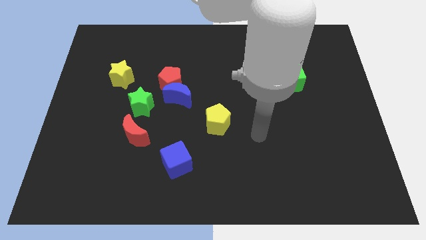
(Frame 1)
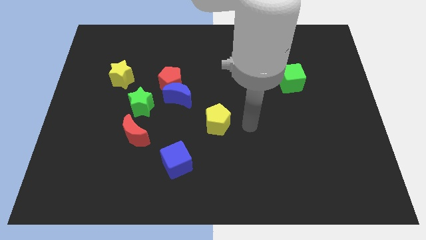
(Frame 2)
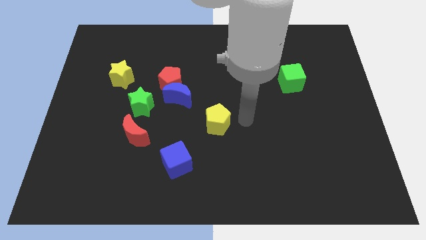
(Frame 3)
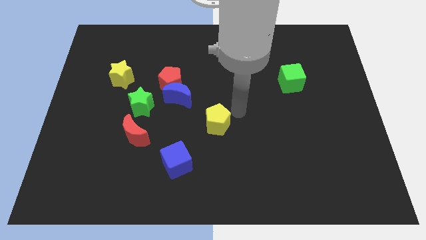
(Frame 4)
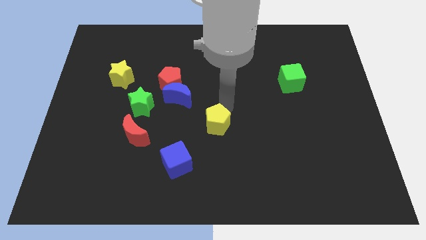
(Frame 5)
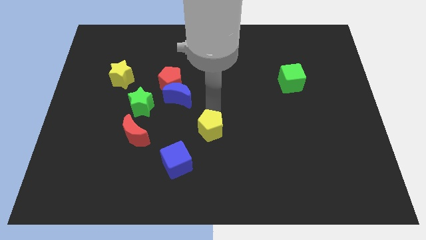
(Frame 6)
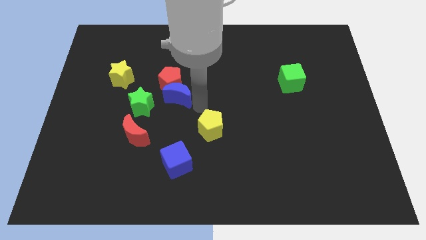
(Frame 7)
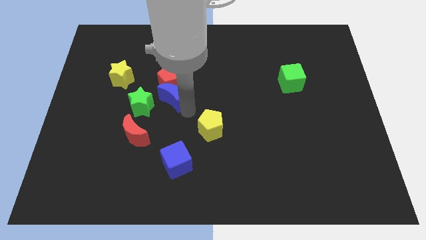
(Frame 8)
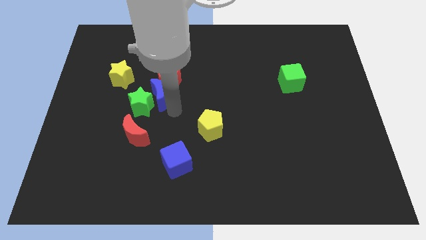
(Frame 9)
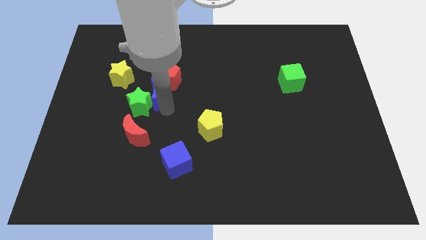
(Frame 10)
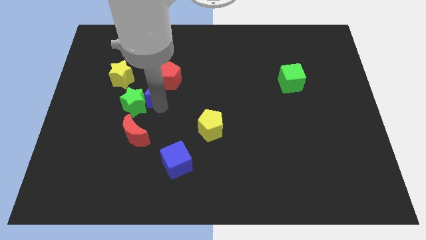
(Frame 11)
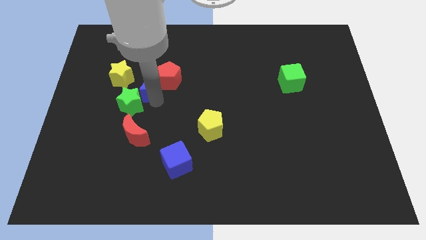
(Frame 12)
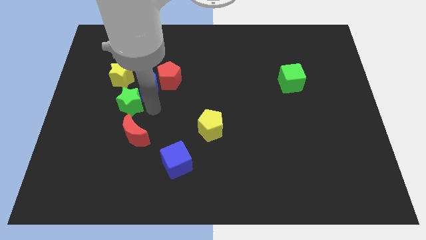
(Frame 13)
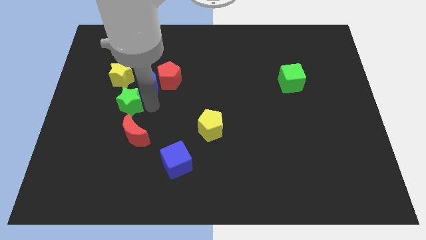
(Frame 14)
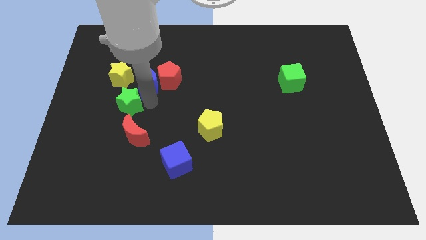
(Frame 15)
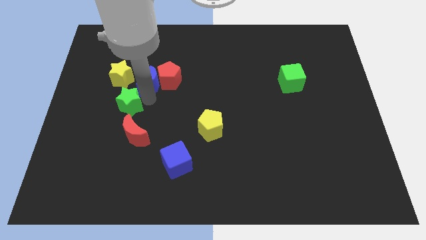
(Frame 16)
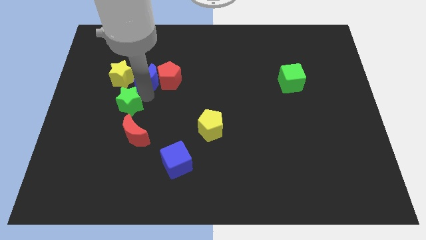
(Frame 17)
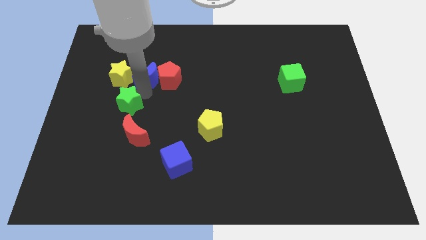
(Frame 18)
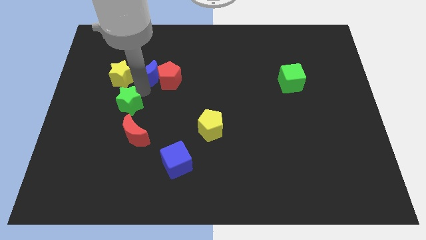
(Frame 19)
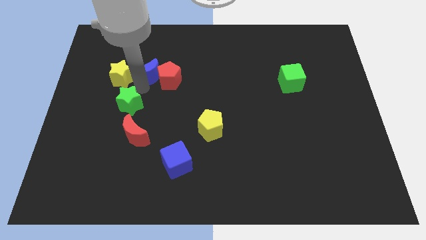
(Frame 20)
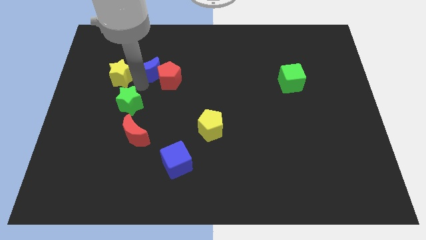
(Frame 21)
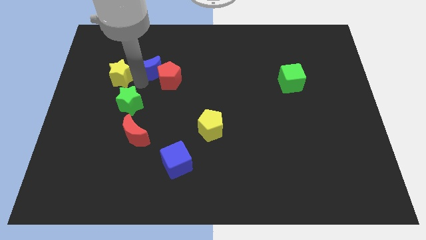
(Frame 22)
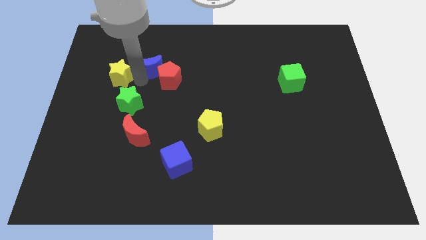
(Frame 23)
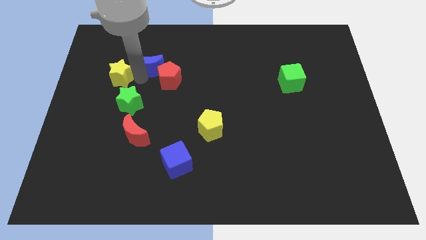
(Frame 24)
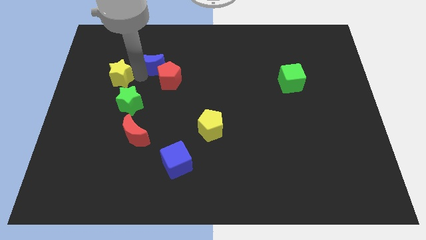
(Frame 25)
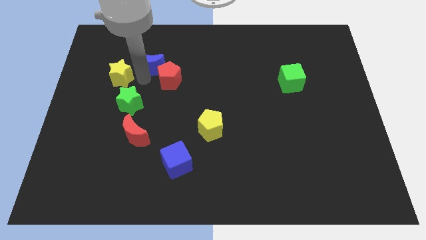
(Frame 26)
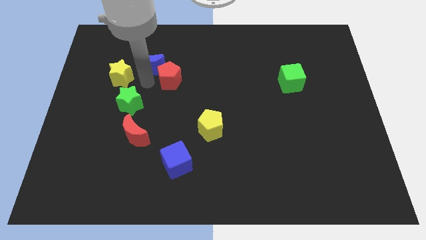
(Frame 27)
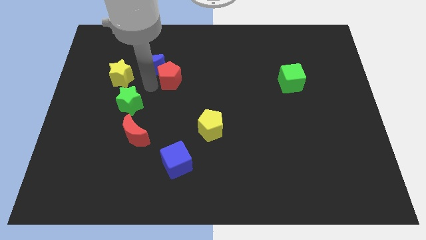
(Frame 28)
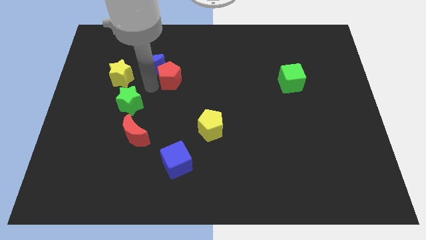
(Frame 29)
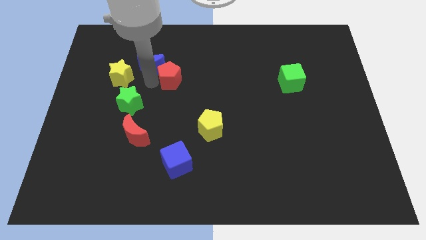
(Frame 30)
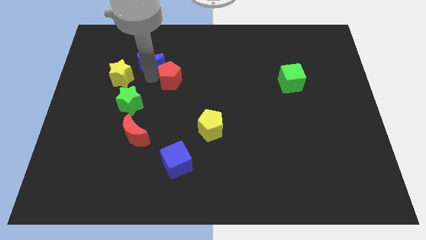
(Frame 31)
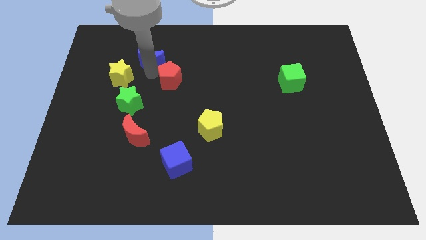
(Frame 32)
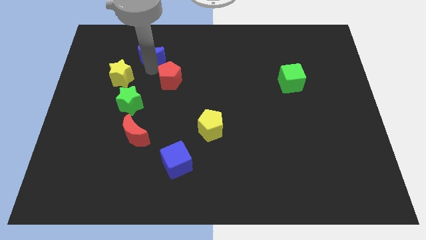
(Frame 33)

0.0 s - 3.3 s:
separate the blue moon from the red pentagon and green star

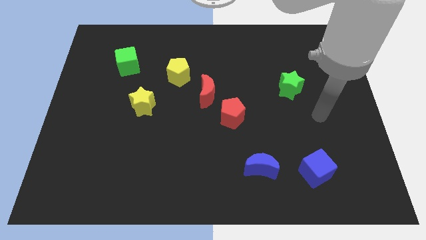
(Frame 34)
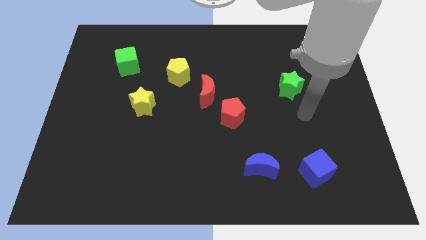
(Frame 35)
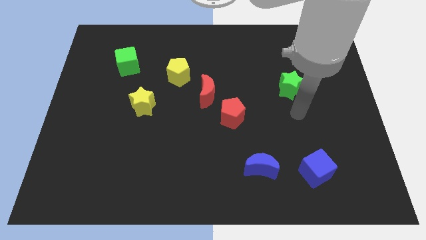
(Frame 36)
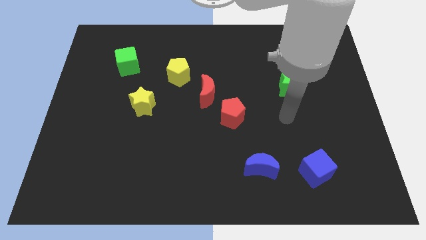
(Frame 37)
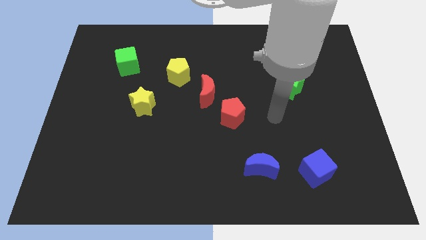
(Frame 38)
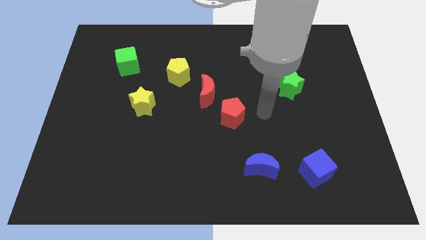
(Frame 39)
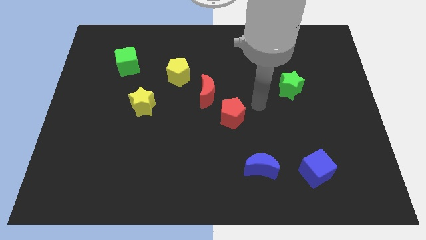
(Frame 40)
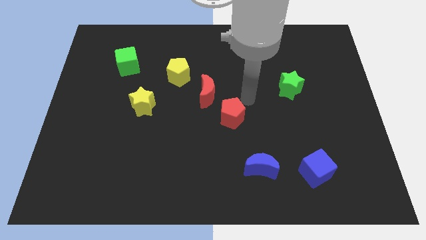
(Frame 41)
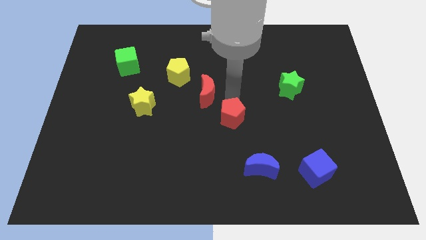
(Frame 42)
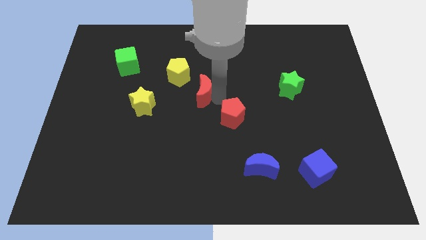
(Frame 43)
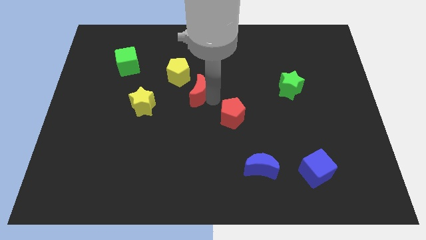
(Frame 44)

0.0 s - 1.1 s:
move the red pentagon away from the red moon

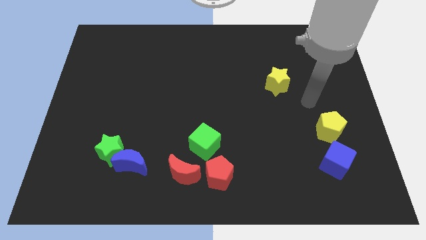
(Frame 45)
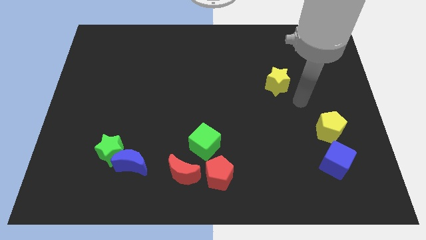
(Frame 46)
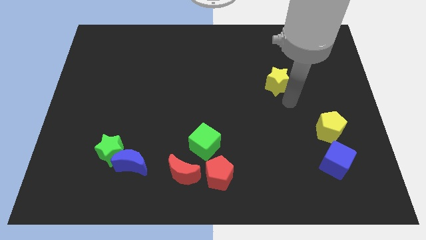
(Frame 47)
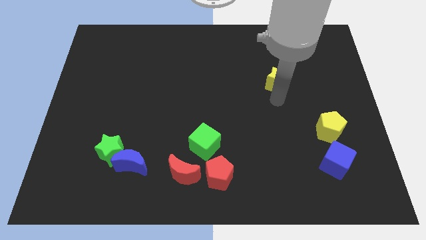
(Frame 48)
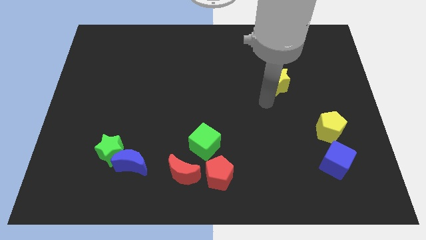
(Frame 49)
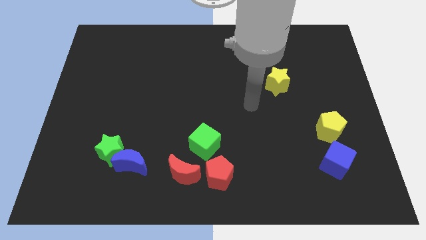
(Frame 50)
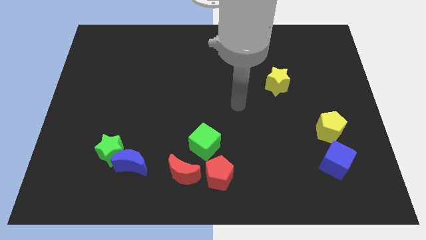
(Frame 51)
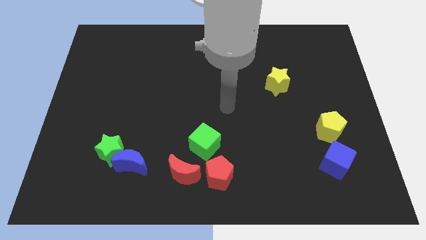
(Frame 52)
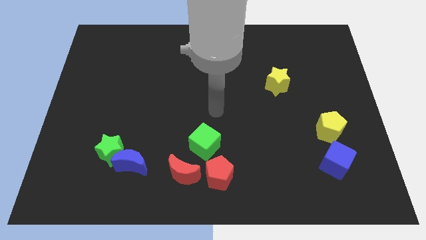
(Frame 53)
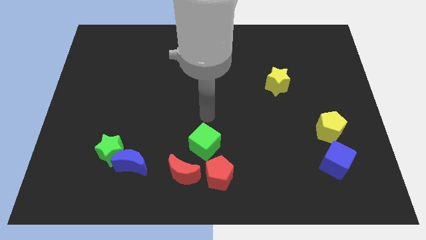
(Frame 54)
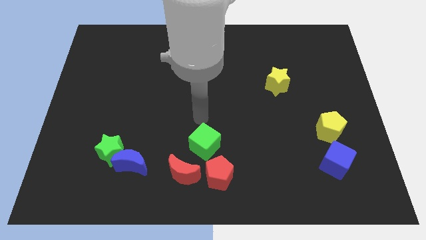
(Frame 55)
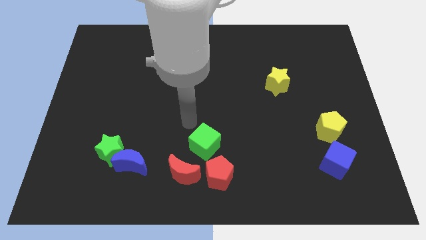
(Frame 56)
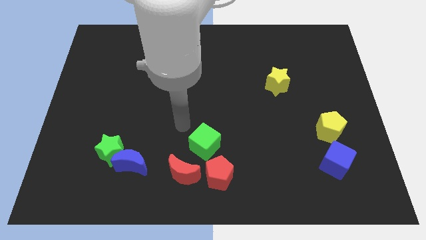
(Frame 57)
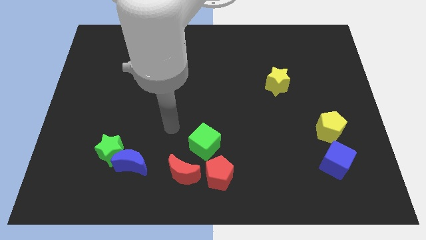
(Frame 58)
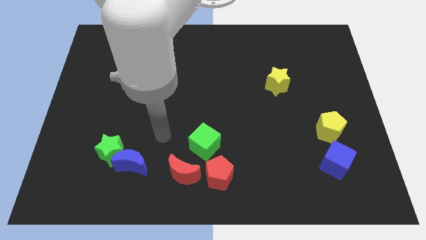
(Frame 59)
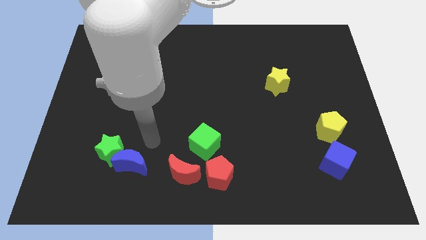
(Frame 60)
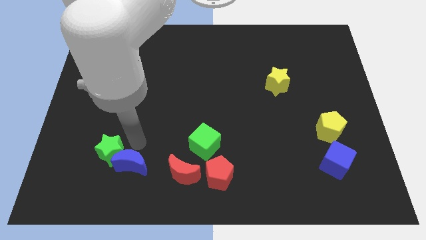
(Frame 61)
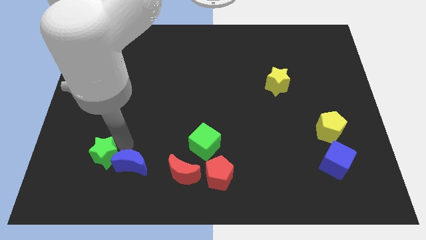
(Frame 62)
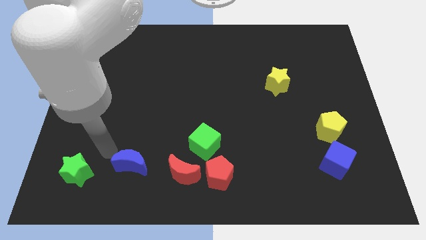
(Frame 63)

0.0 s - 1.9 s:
separate the blue moon from the green star

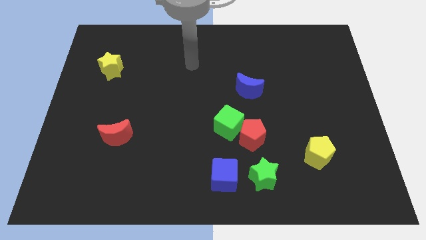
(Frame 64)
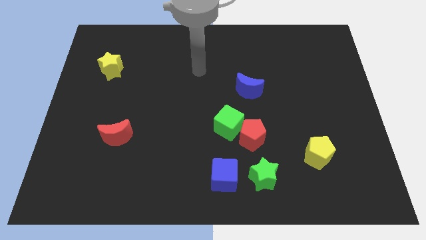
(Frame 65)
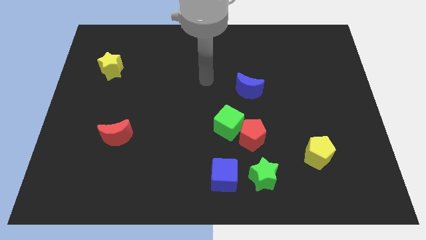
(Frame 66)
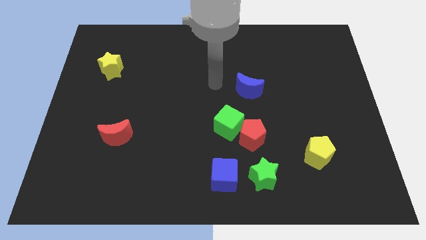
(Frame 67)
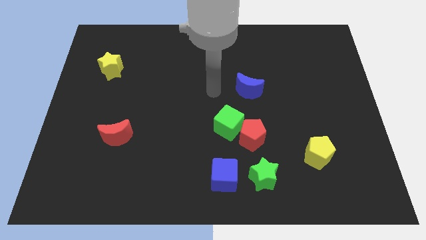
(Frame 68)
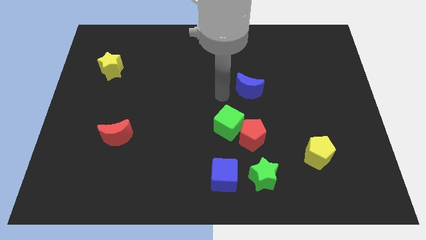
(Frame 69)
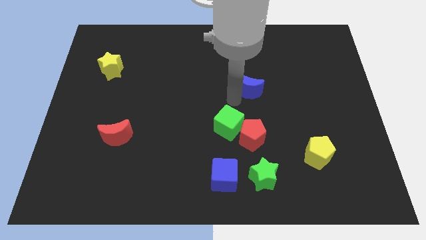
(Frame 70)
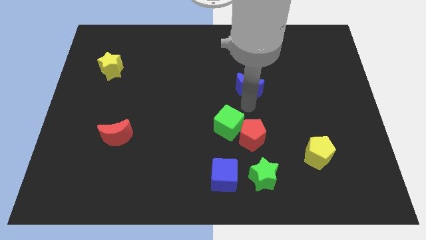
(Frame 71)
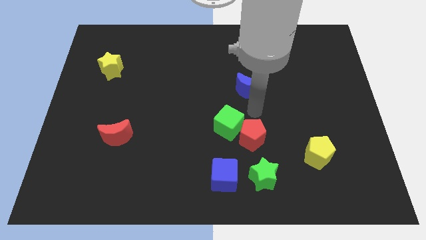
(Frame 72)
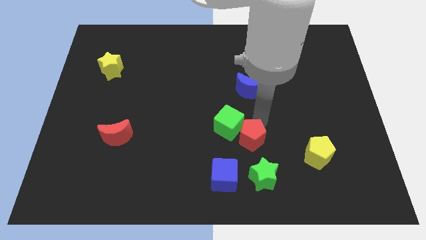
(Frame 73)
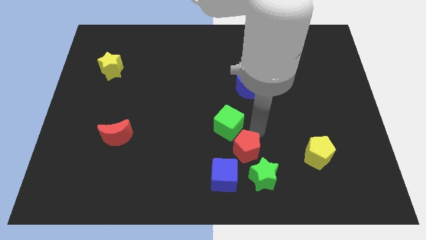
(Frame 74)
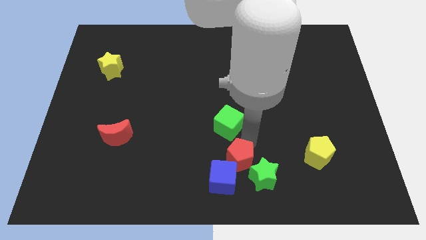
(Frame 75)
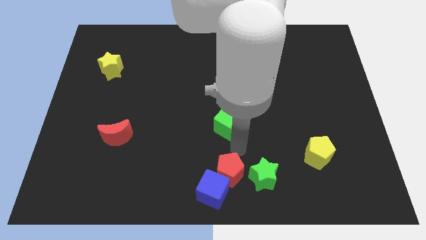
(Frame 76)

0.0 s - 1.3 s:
pull the green cube apart from the red pentagon

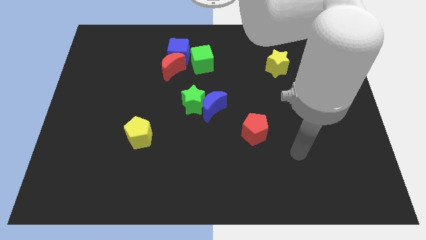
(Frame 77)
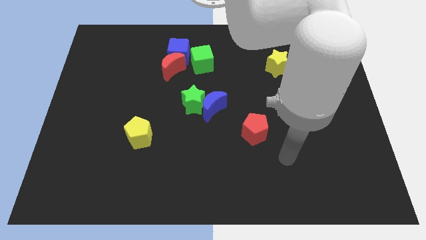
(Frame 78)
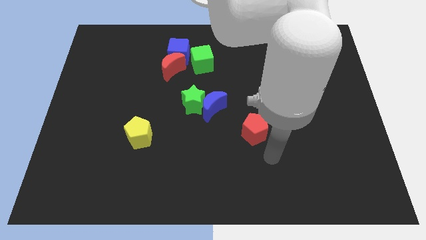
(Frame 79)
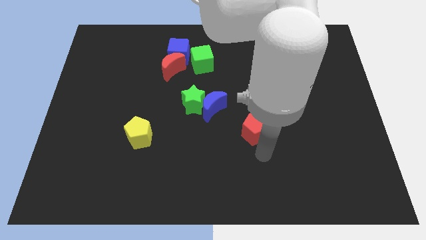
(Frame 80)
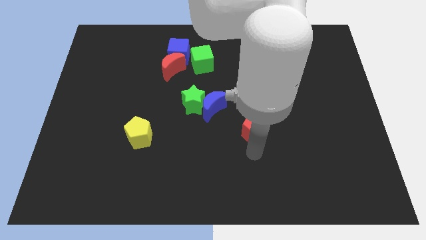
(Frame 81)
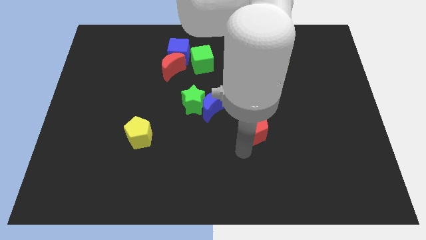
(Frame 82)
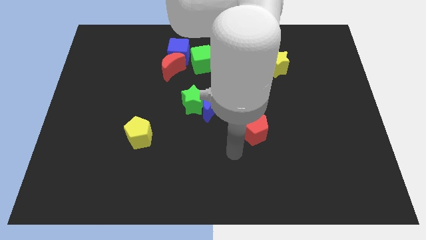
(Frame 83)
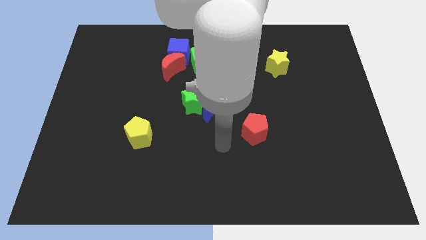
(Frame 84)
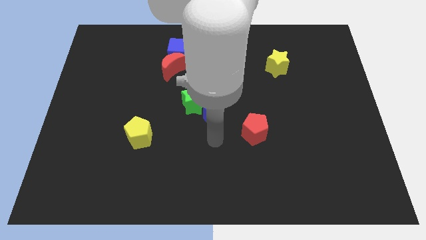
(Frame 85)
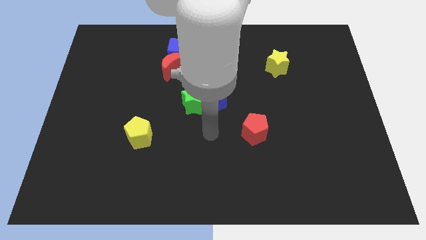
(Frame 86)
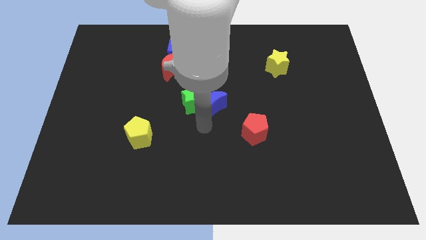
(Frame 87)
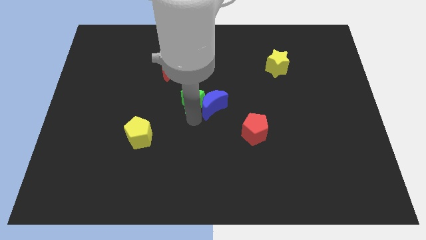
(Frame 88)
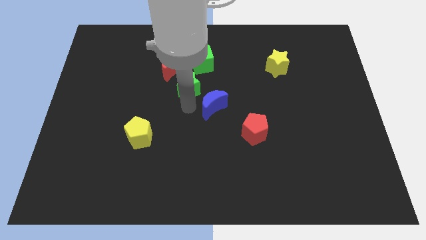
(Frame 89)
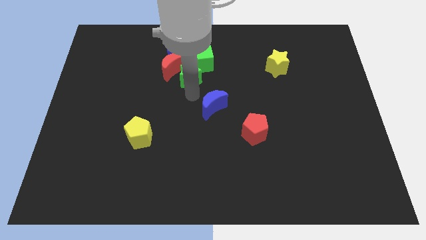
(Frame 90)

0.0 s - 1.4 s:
move the blue moon away from the green star

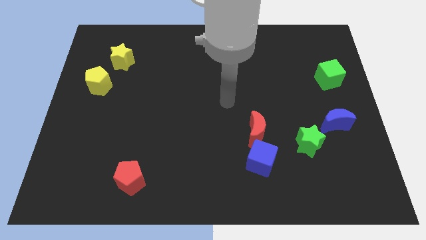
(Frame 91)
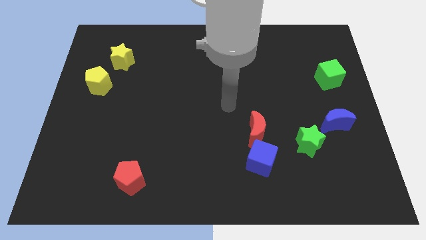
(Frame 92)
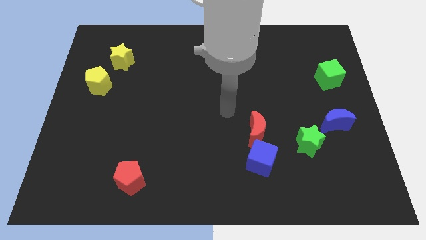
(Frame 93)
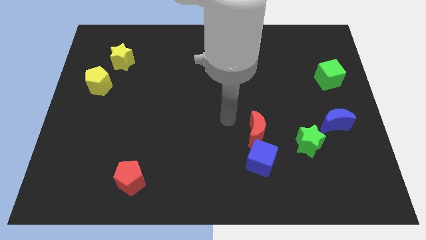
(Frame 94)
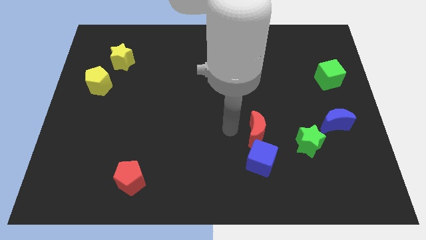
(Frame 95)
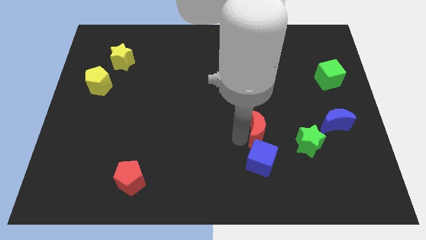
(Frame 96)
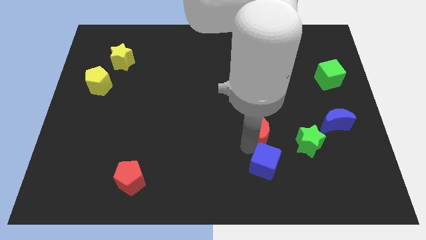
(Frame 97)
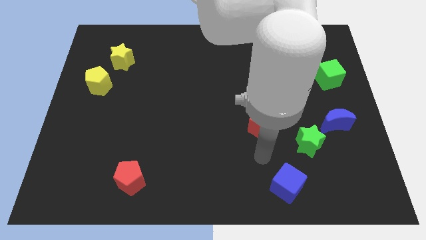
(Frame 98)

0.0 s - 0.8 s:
move the red moon away from the blue cube